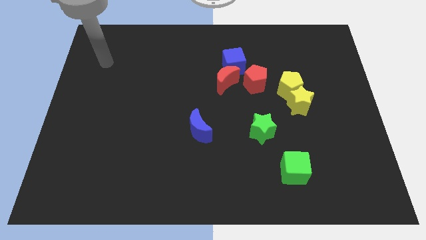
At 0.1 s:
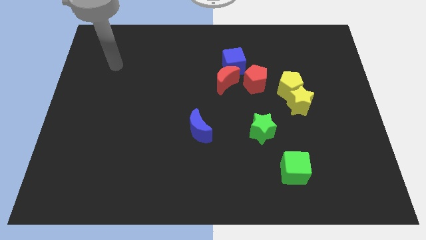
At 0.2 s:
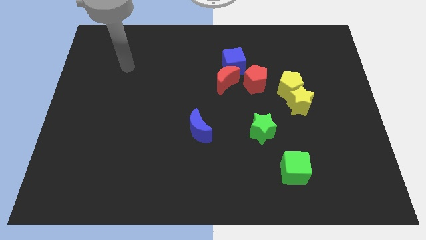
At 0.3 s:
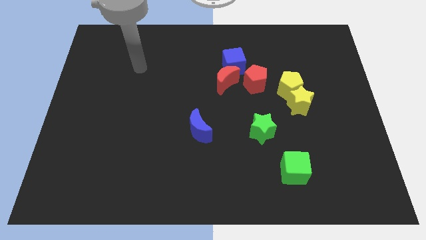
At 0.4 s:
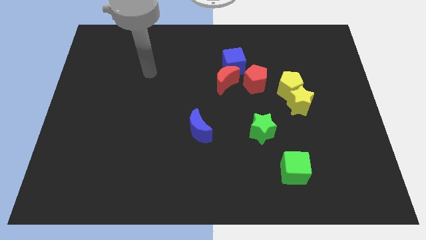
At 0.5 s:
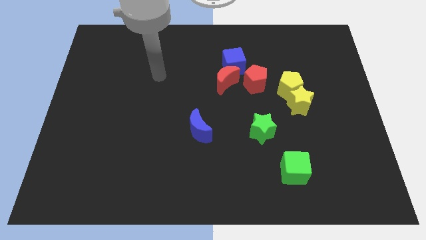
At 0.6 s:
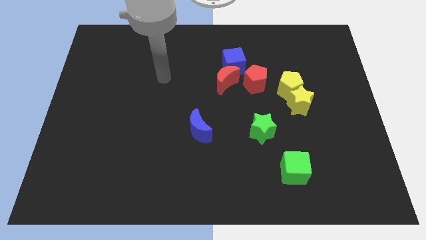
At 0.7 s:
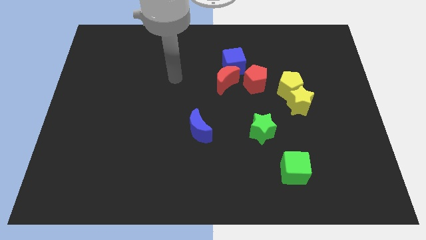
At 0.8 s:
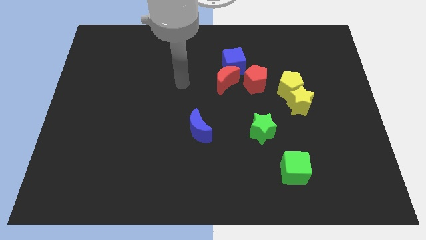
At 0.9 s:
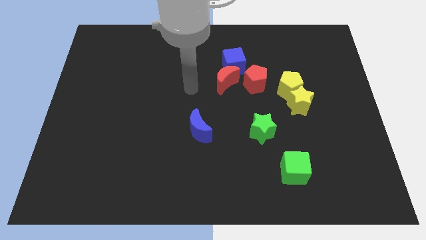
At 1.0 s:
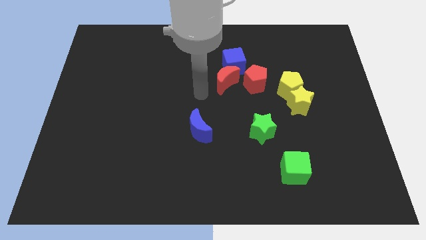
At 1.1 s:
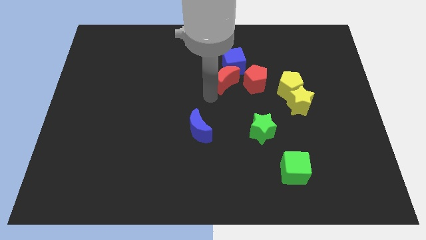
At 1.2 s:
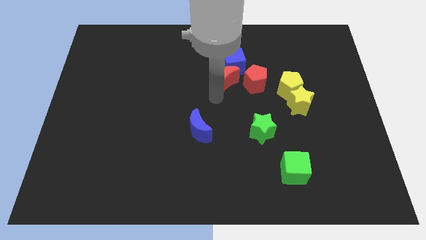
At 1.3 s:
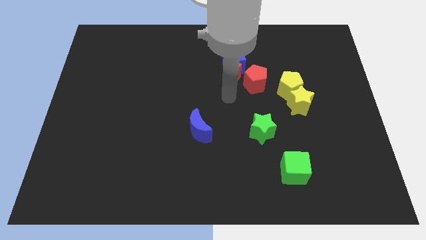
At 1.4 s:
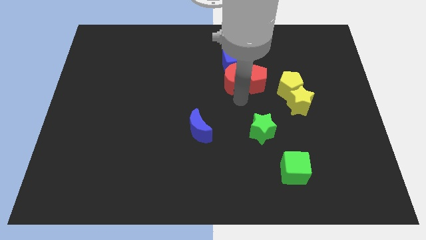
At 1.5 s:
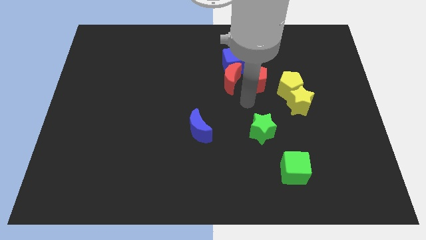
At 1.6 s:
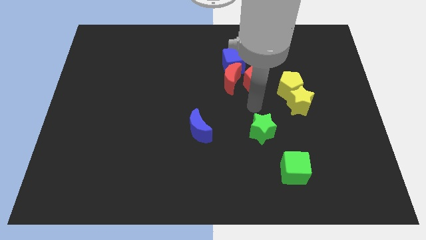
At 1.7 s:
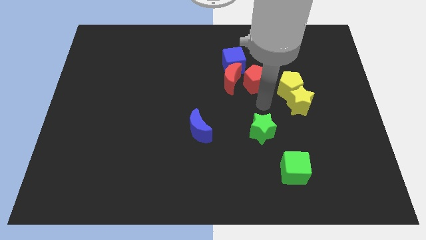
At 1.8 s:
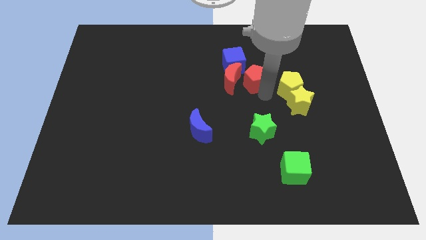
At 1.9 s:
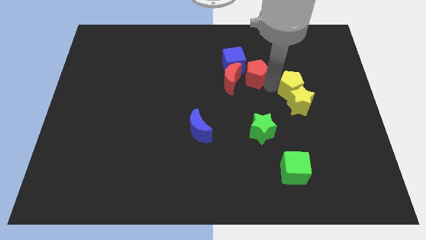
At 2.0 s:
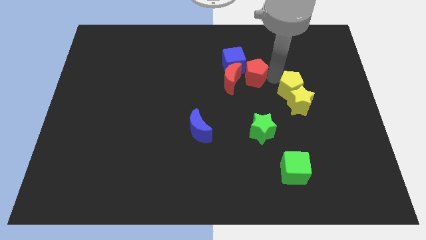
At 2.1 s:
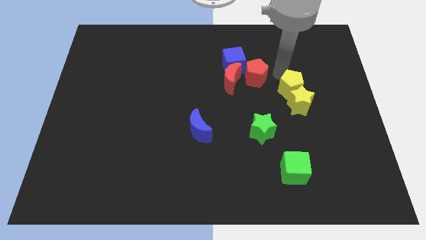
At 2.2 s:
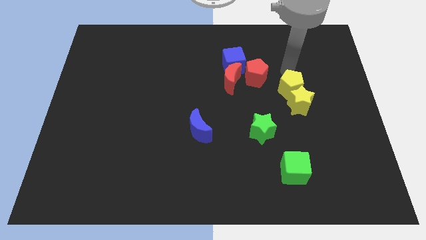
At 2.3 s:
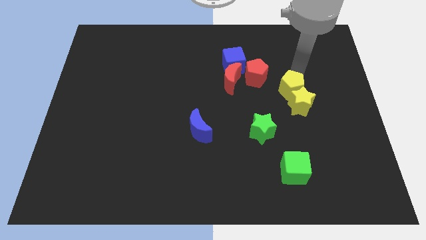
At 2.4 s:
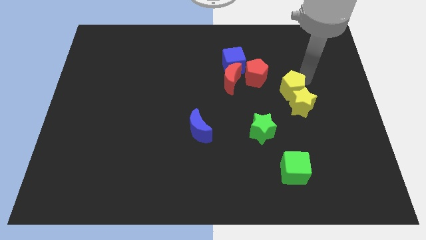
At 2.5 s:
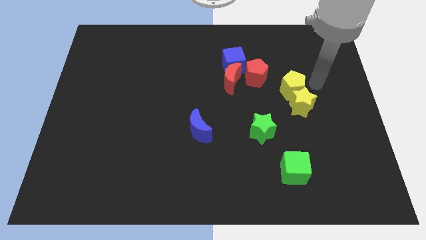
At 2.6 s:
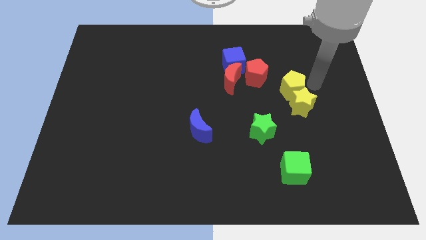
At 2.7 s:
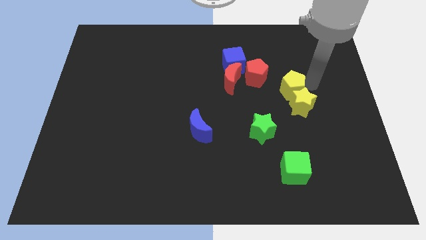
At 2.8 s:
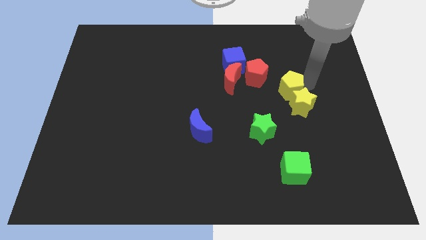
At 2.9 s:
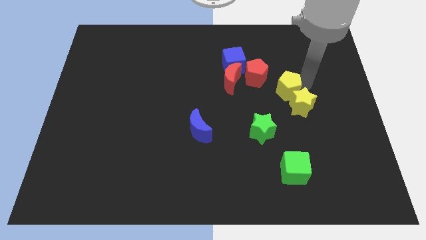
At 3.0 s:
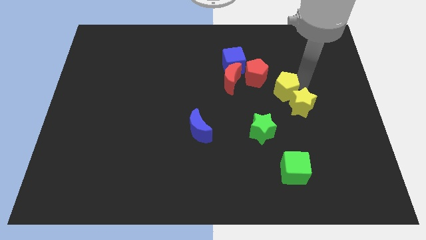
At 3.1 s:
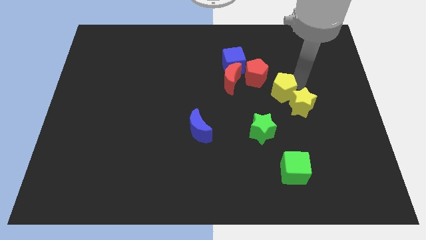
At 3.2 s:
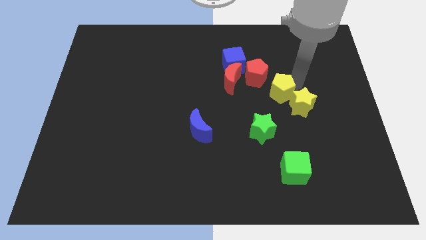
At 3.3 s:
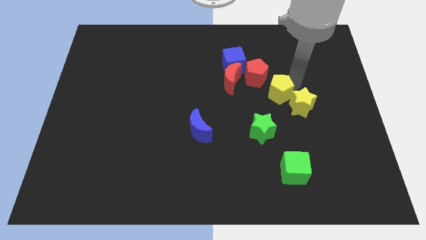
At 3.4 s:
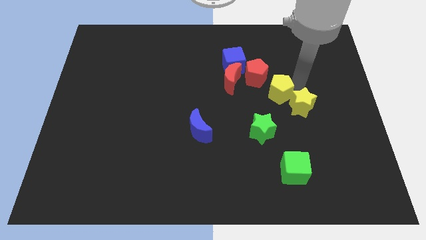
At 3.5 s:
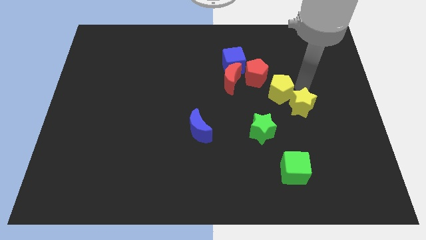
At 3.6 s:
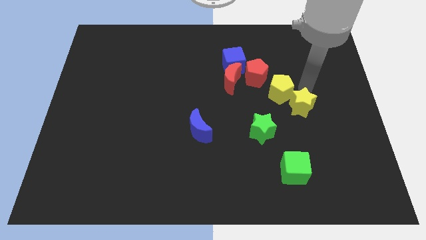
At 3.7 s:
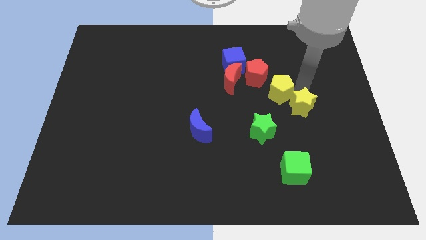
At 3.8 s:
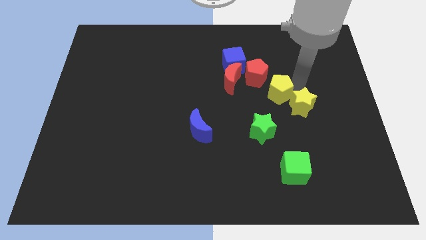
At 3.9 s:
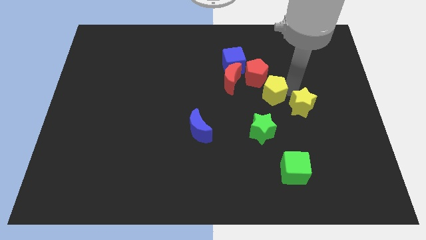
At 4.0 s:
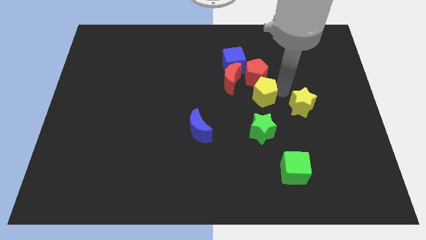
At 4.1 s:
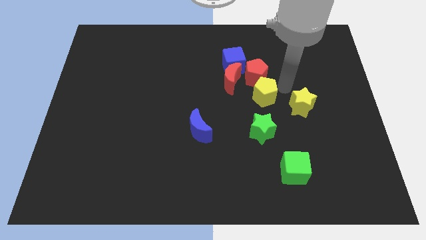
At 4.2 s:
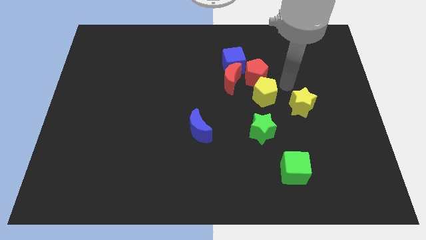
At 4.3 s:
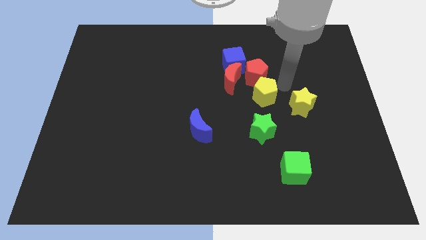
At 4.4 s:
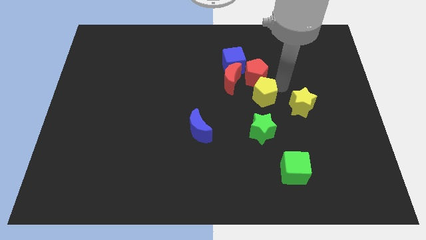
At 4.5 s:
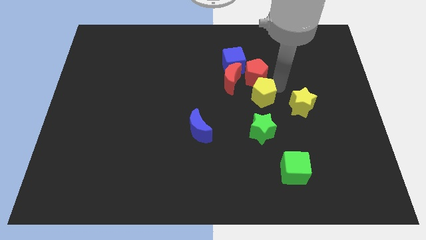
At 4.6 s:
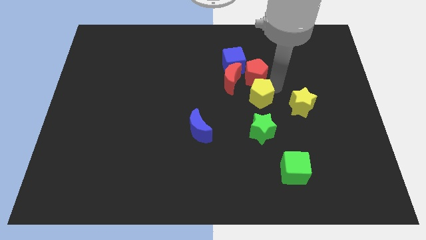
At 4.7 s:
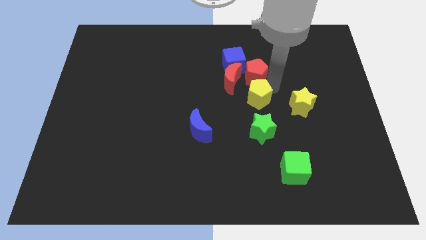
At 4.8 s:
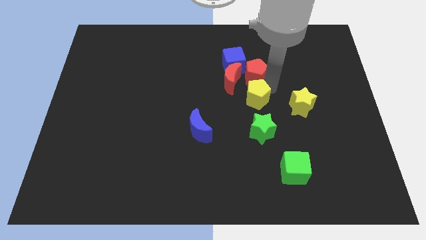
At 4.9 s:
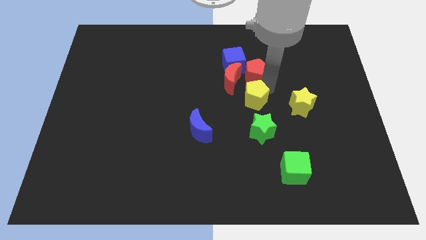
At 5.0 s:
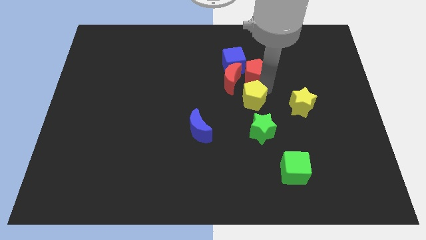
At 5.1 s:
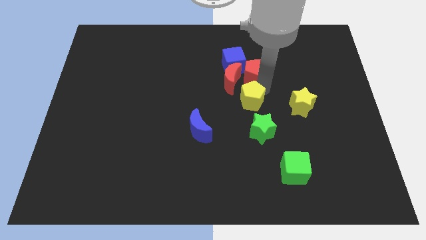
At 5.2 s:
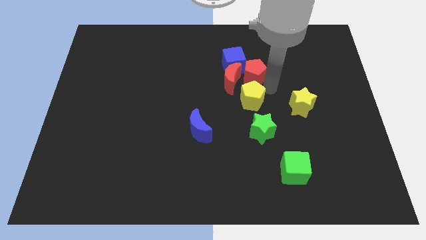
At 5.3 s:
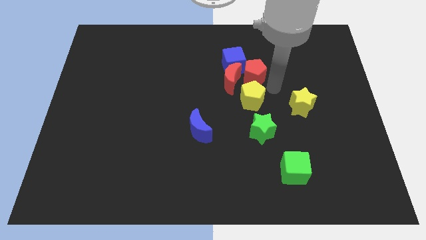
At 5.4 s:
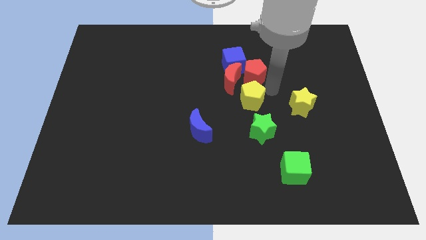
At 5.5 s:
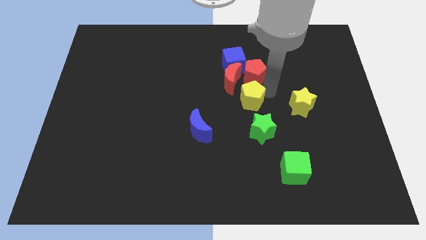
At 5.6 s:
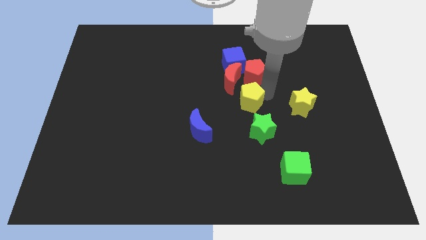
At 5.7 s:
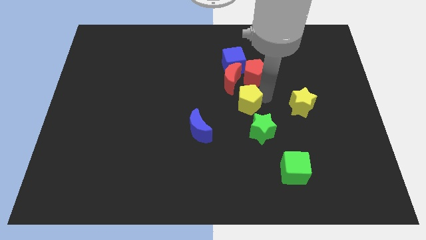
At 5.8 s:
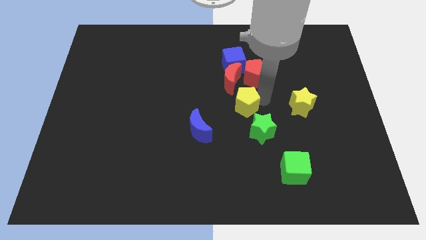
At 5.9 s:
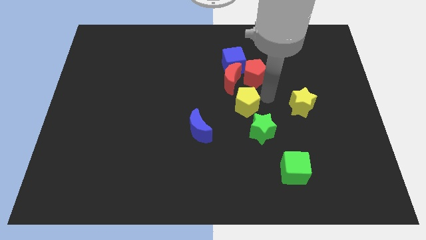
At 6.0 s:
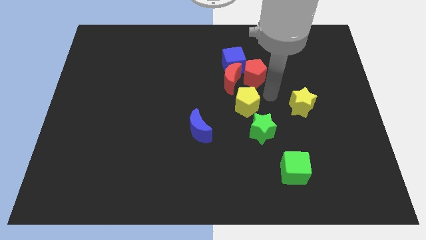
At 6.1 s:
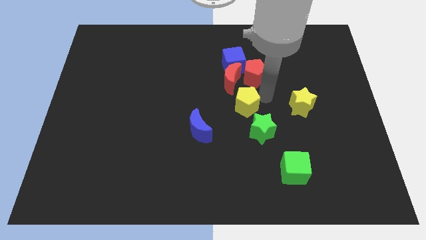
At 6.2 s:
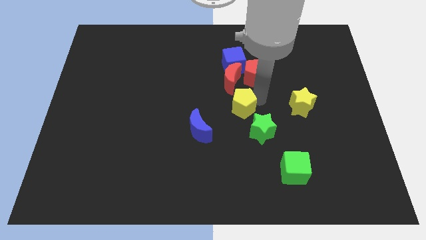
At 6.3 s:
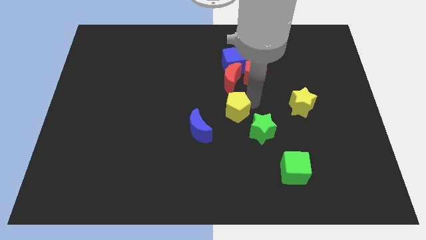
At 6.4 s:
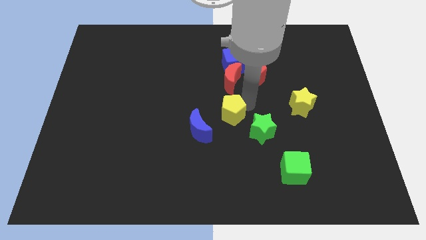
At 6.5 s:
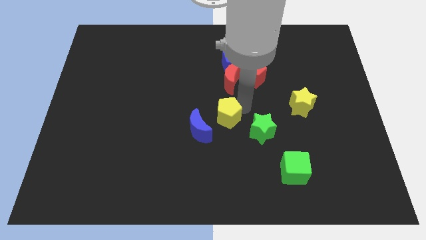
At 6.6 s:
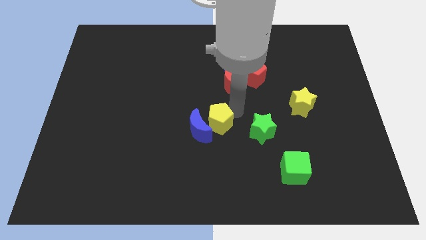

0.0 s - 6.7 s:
push the yellow pentagon next to the blue moon
